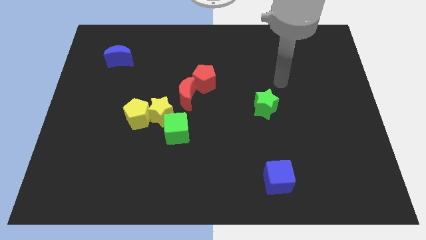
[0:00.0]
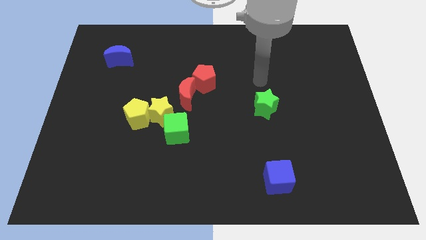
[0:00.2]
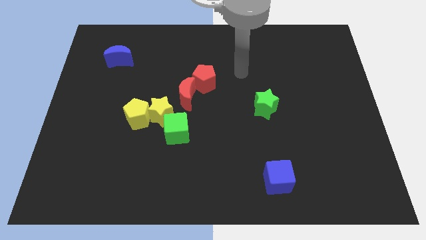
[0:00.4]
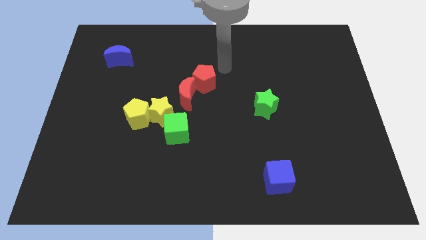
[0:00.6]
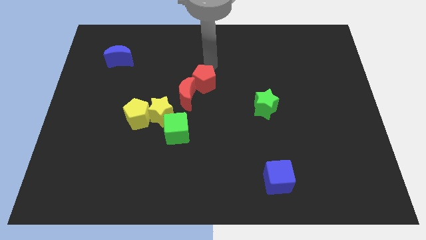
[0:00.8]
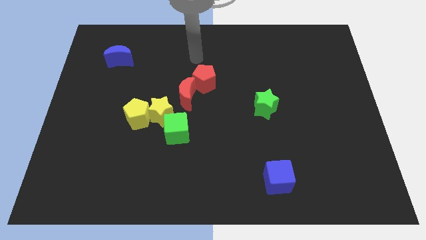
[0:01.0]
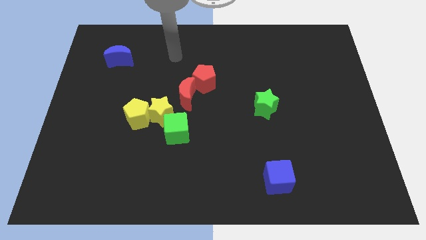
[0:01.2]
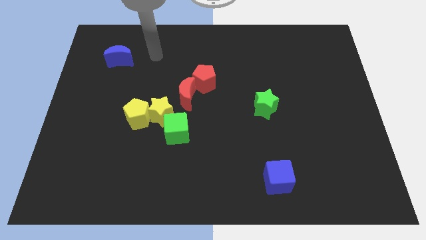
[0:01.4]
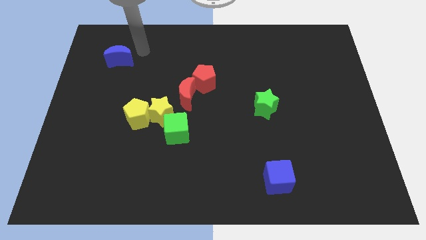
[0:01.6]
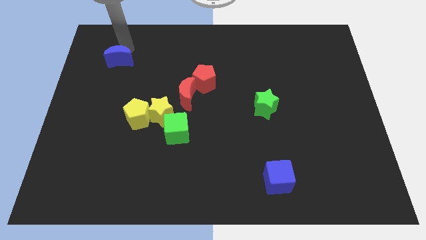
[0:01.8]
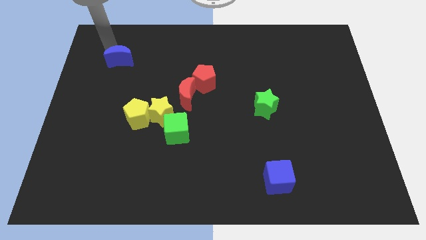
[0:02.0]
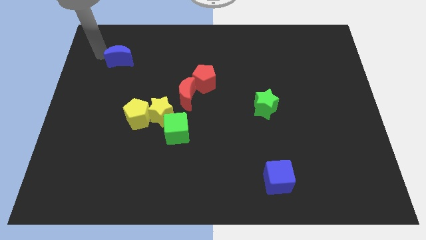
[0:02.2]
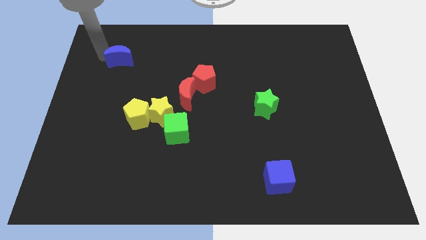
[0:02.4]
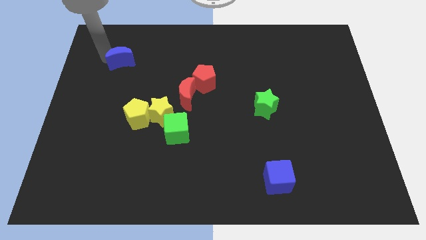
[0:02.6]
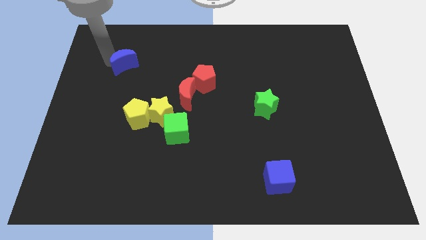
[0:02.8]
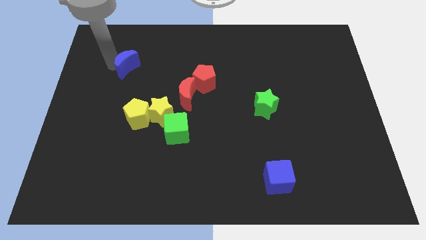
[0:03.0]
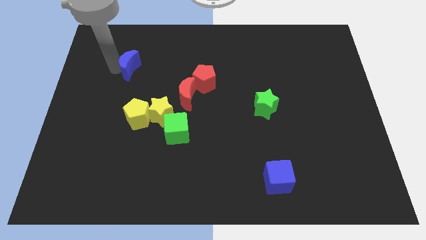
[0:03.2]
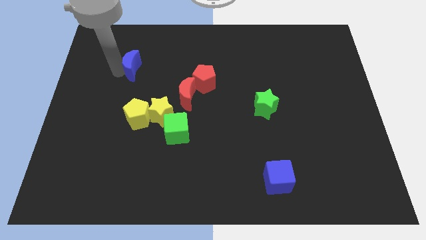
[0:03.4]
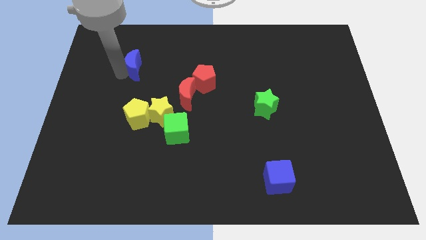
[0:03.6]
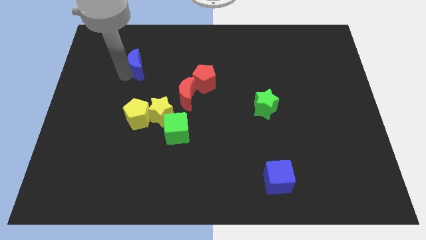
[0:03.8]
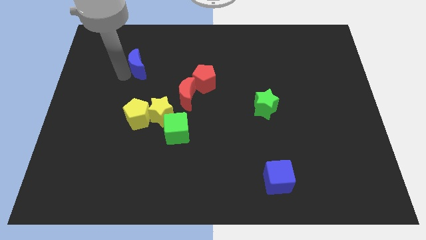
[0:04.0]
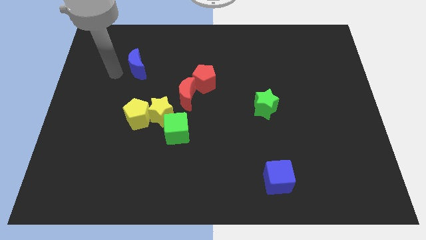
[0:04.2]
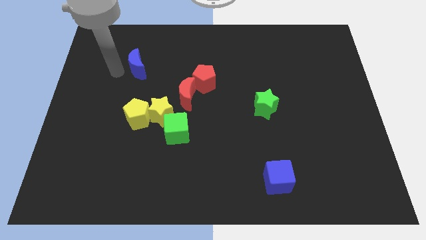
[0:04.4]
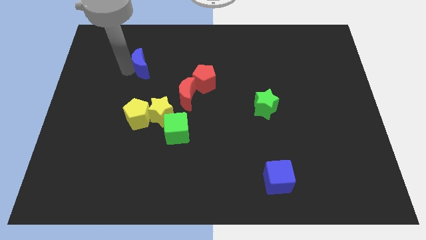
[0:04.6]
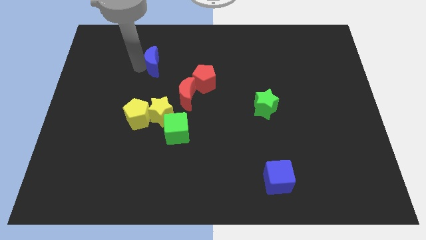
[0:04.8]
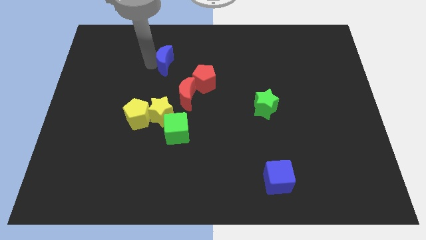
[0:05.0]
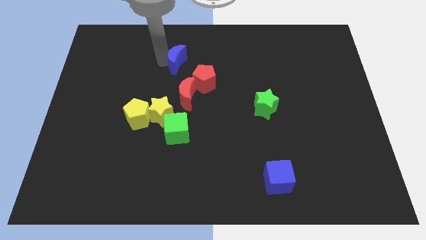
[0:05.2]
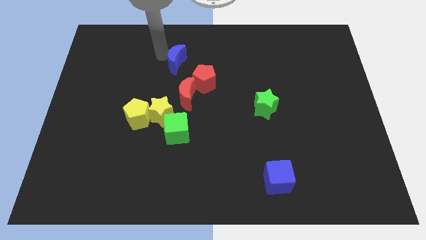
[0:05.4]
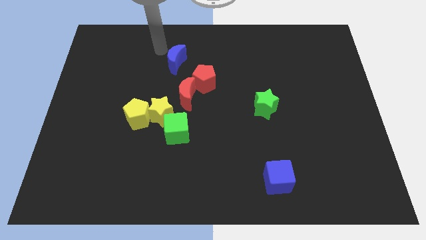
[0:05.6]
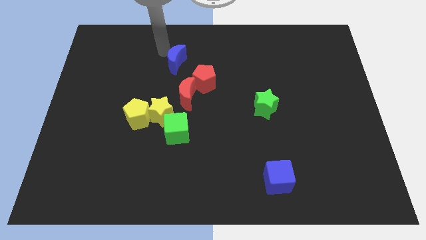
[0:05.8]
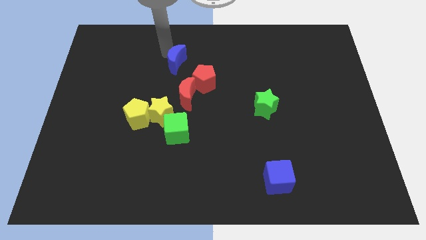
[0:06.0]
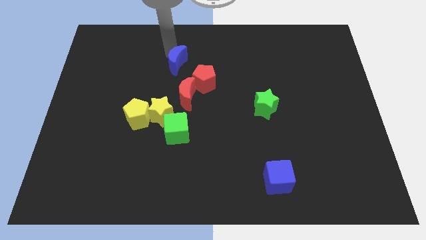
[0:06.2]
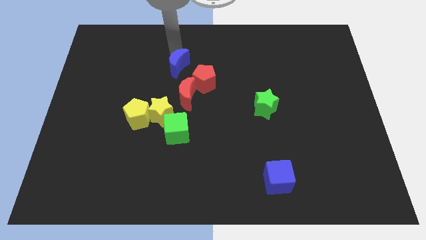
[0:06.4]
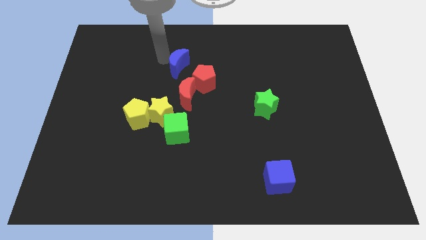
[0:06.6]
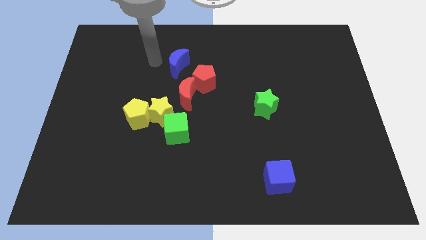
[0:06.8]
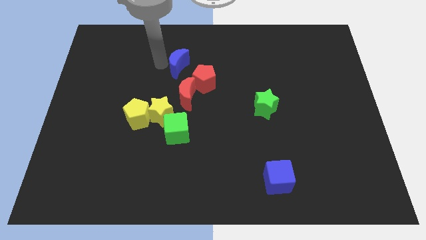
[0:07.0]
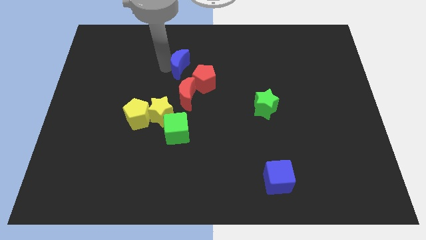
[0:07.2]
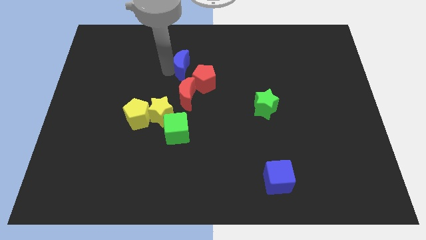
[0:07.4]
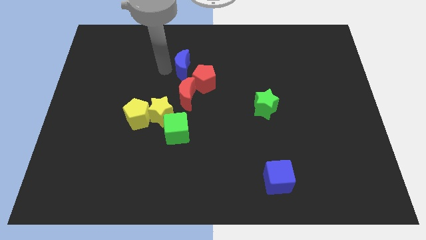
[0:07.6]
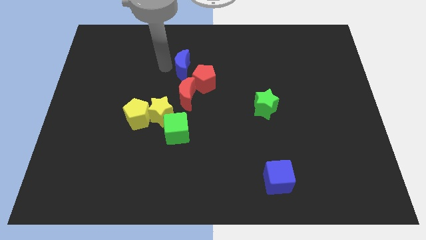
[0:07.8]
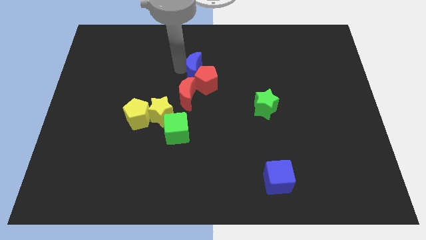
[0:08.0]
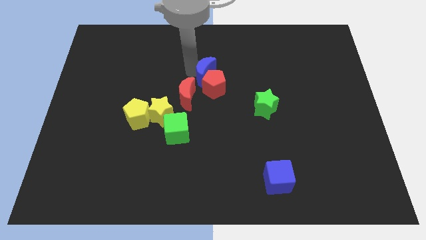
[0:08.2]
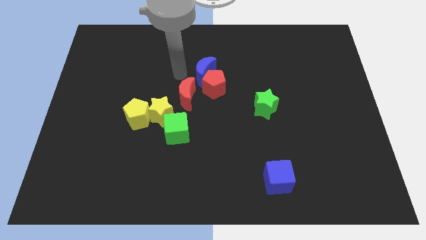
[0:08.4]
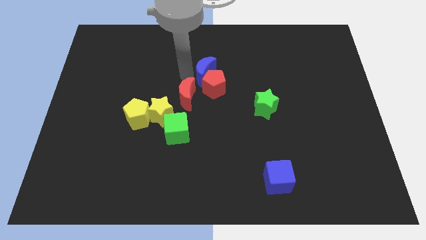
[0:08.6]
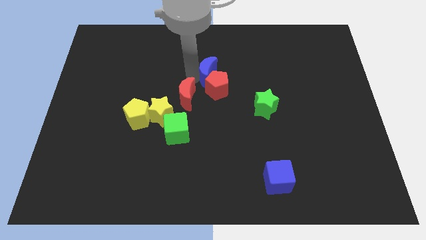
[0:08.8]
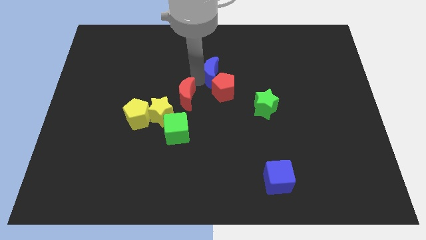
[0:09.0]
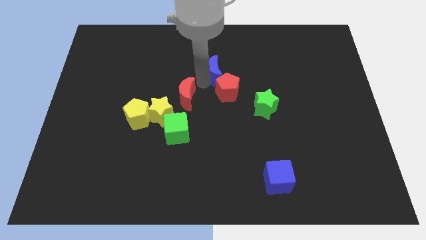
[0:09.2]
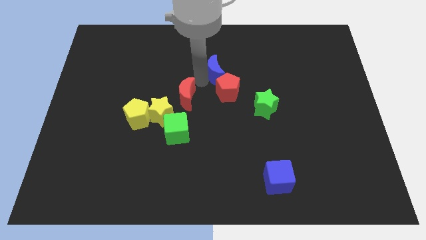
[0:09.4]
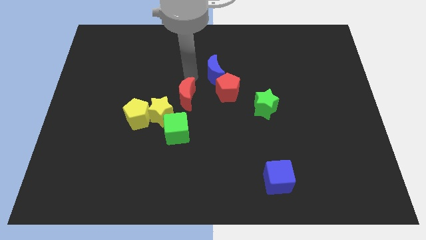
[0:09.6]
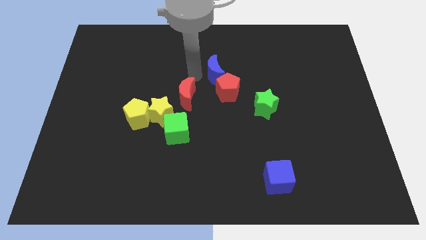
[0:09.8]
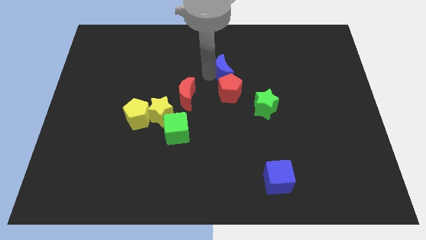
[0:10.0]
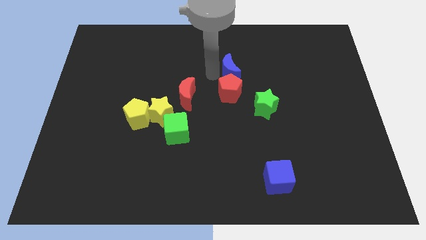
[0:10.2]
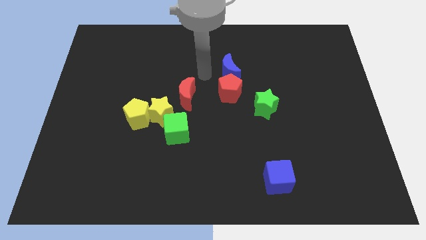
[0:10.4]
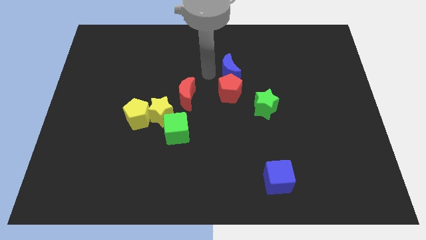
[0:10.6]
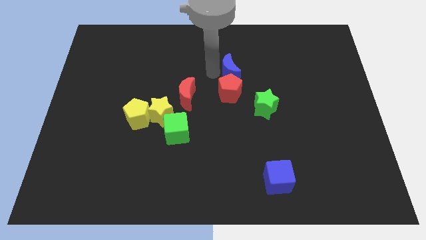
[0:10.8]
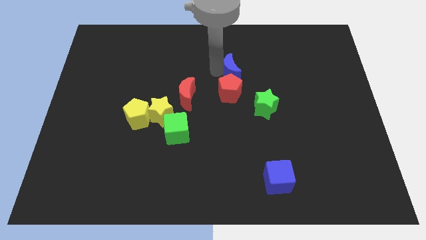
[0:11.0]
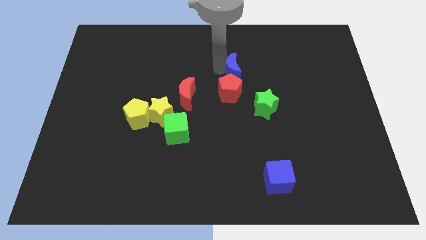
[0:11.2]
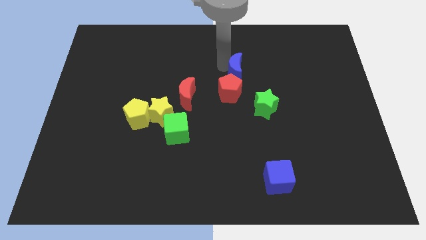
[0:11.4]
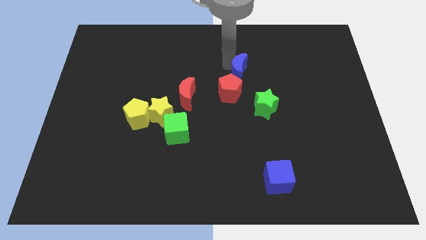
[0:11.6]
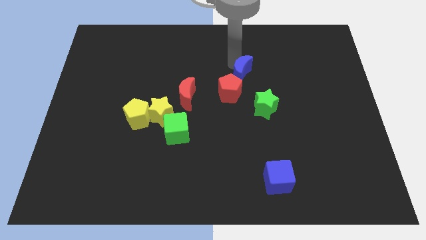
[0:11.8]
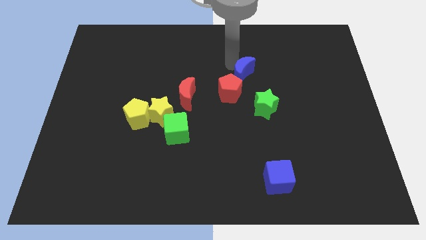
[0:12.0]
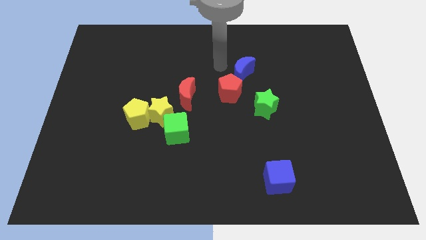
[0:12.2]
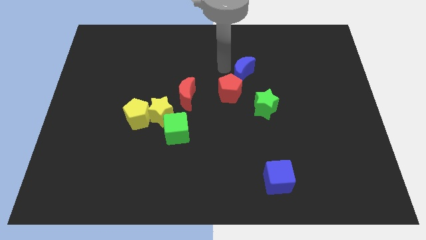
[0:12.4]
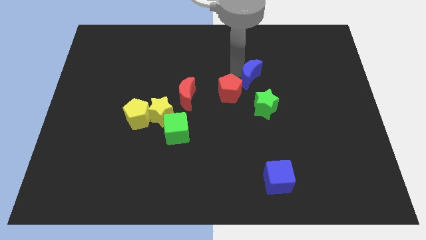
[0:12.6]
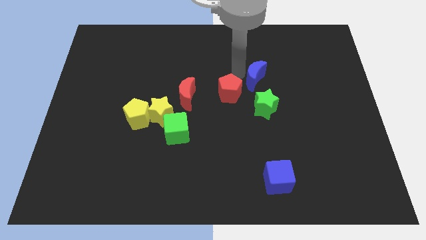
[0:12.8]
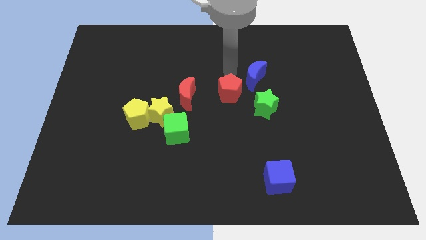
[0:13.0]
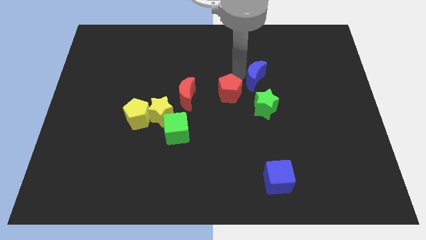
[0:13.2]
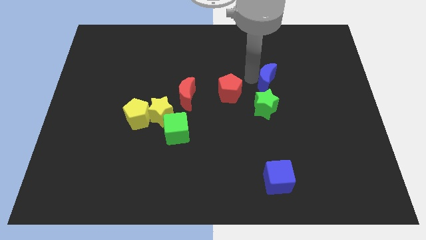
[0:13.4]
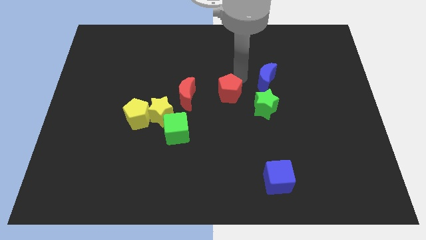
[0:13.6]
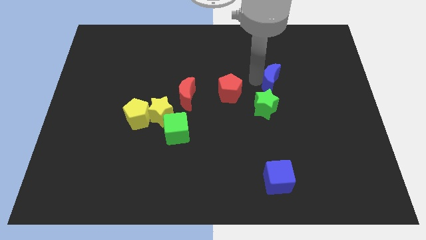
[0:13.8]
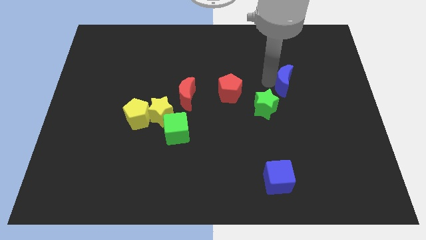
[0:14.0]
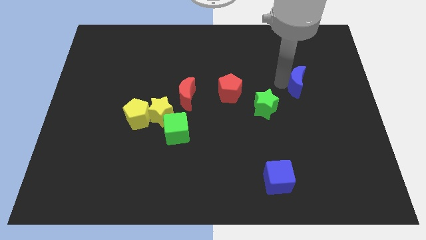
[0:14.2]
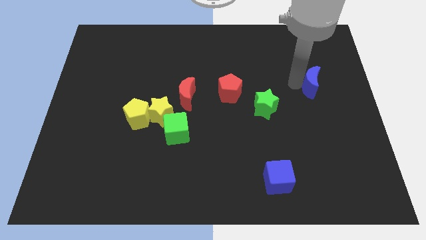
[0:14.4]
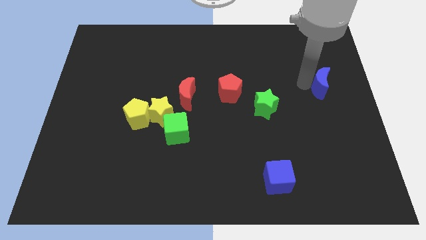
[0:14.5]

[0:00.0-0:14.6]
slide the blue moon to the right side
